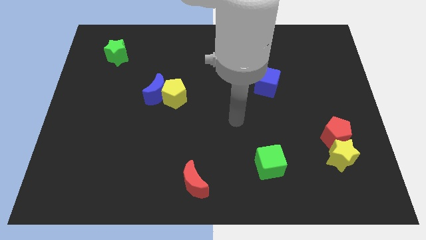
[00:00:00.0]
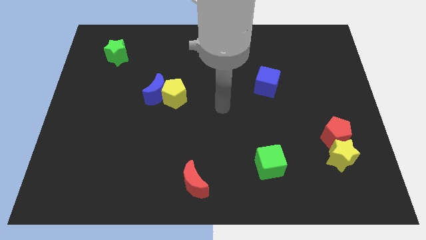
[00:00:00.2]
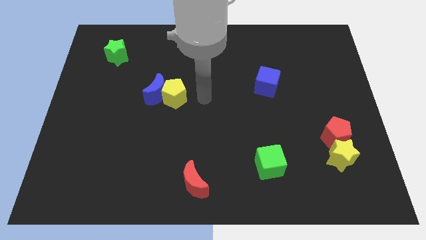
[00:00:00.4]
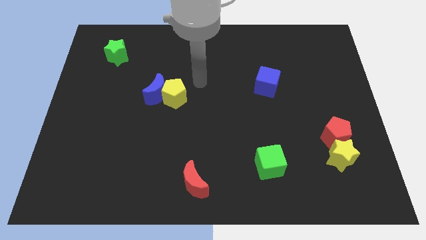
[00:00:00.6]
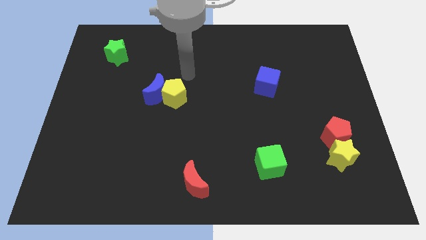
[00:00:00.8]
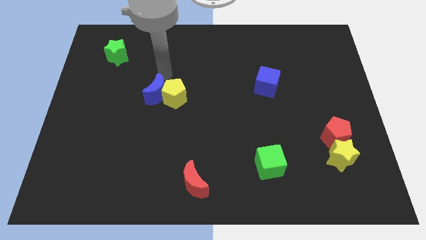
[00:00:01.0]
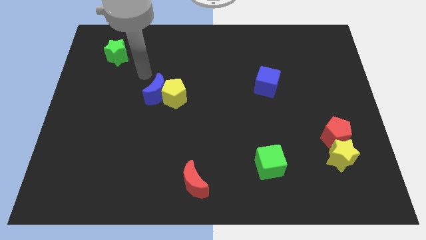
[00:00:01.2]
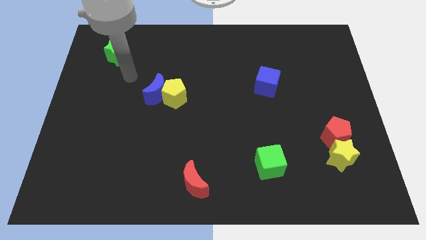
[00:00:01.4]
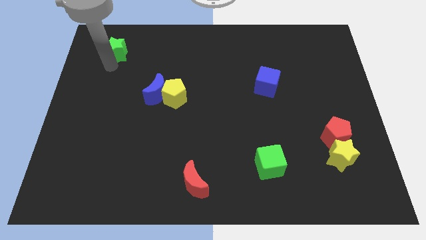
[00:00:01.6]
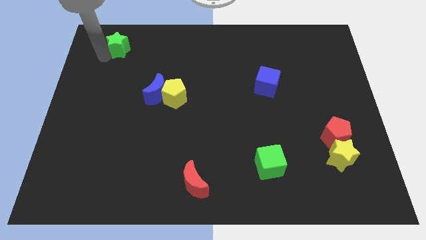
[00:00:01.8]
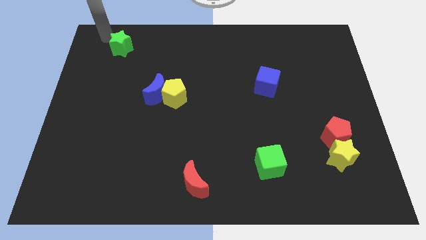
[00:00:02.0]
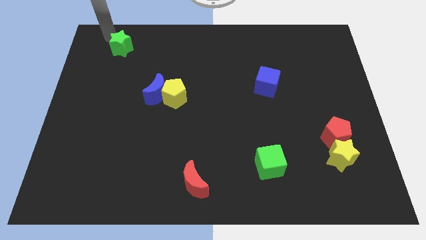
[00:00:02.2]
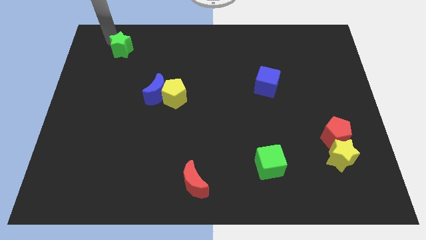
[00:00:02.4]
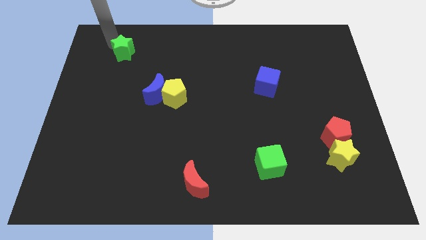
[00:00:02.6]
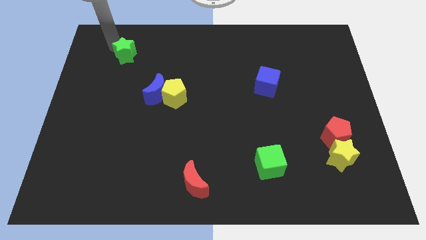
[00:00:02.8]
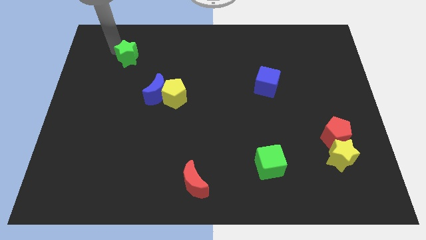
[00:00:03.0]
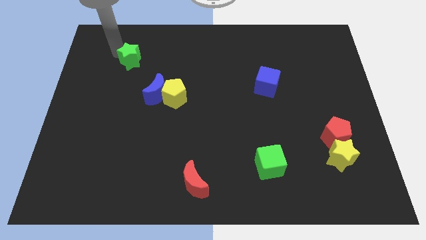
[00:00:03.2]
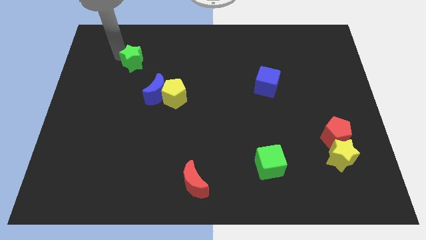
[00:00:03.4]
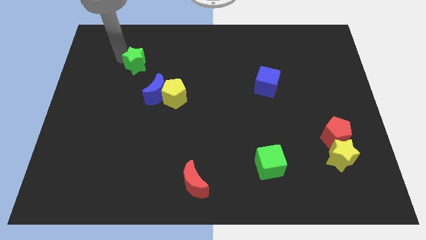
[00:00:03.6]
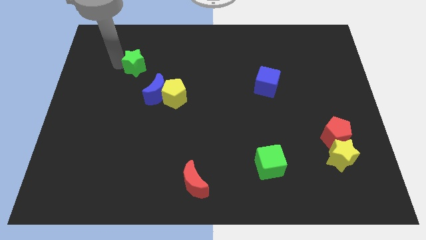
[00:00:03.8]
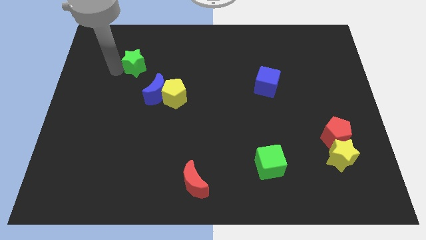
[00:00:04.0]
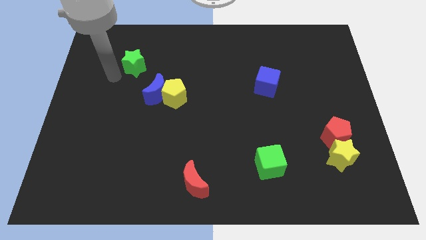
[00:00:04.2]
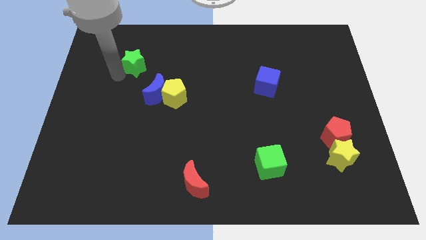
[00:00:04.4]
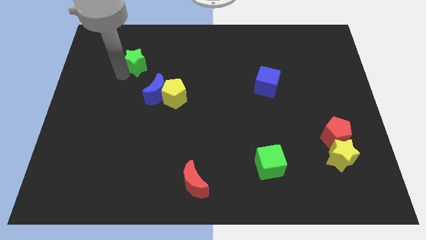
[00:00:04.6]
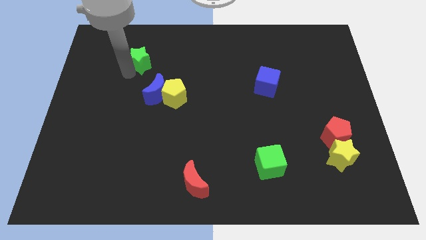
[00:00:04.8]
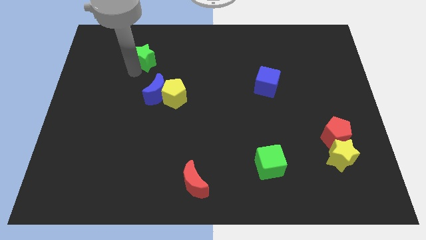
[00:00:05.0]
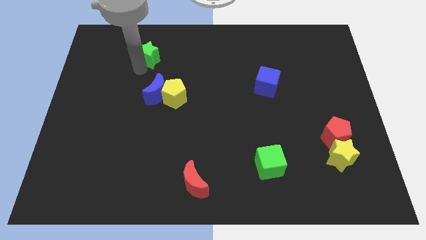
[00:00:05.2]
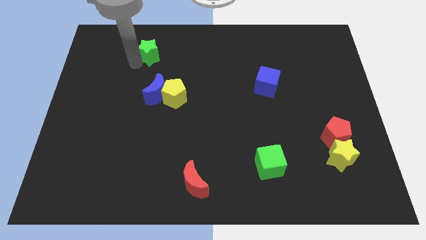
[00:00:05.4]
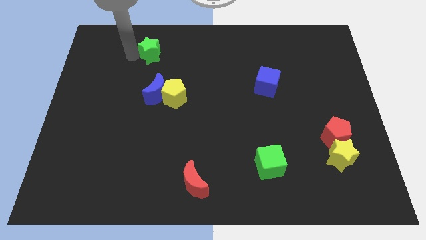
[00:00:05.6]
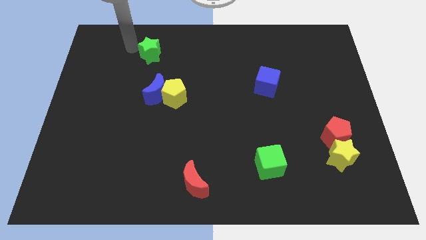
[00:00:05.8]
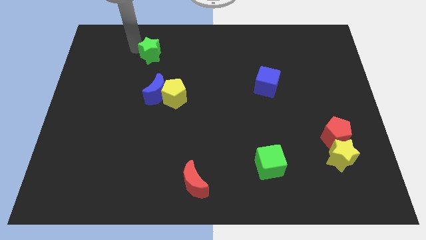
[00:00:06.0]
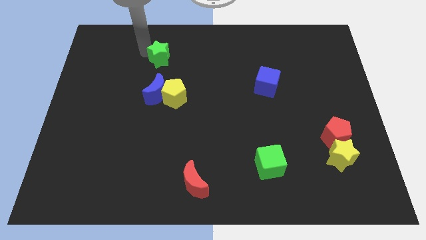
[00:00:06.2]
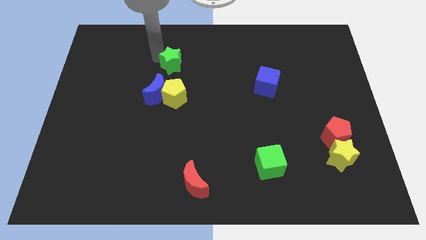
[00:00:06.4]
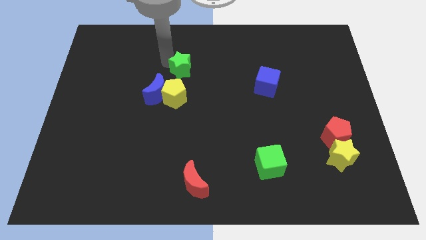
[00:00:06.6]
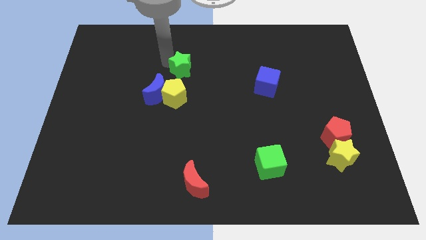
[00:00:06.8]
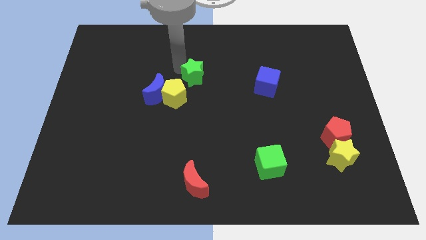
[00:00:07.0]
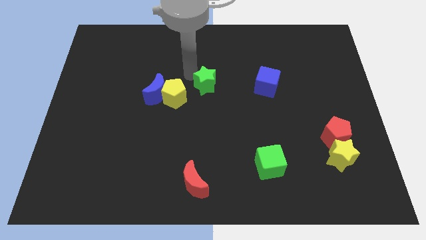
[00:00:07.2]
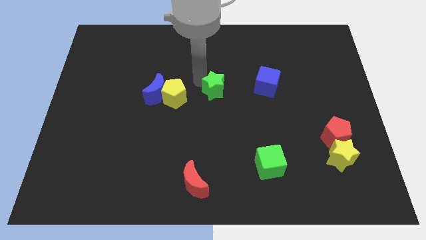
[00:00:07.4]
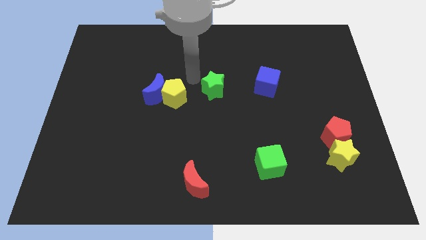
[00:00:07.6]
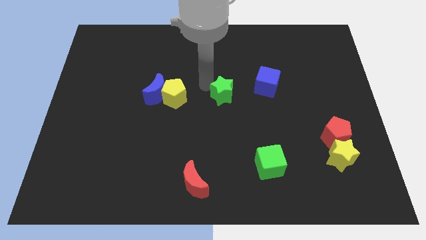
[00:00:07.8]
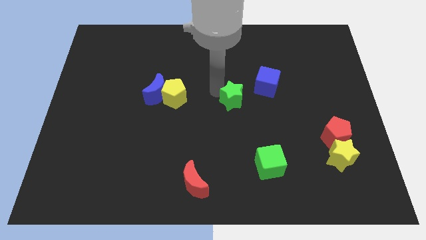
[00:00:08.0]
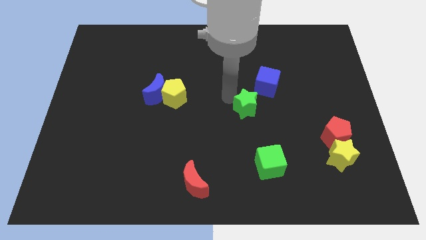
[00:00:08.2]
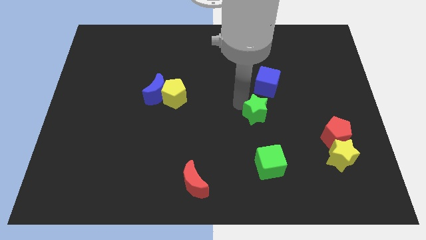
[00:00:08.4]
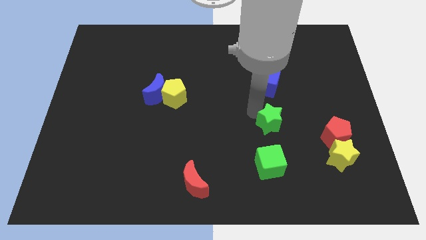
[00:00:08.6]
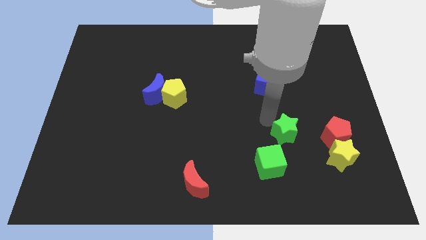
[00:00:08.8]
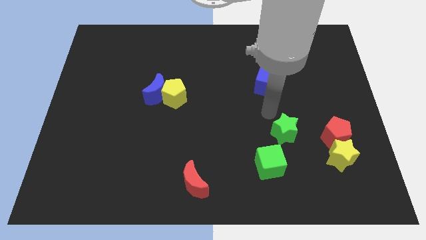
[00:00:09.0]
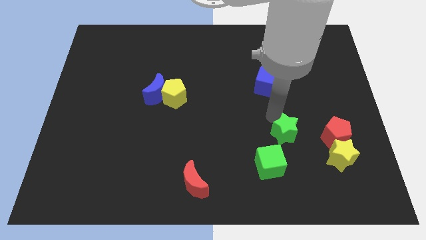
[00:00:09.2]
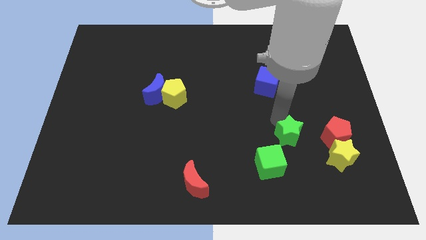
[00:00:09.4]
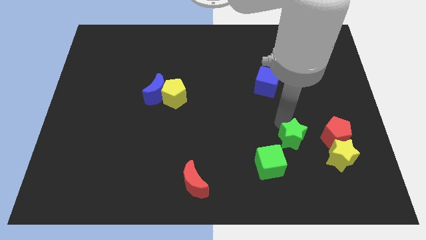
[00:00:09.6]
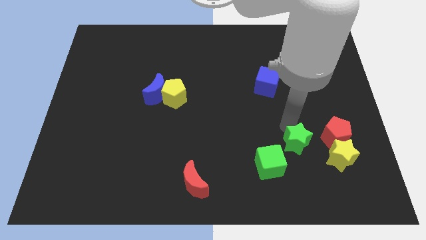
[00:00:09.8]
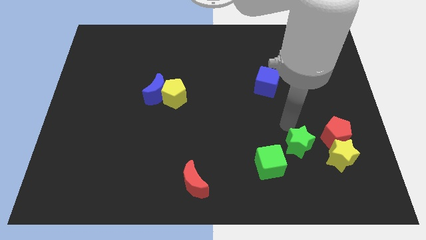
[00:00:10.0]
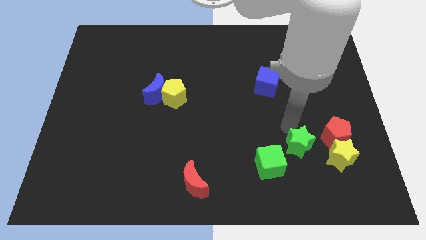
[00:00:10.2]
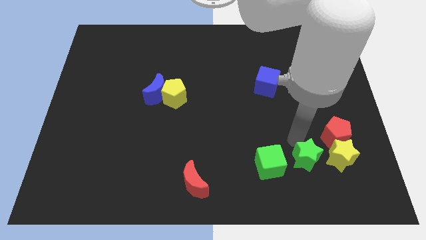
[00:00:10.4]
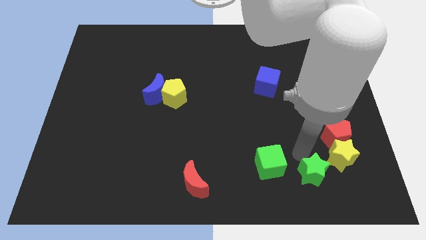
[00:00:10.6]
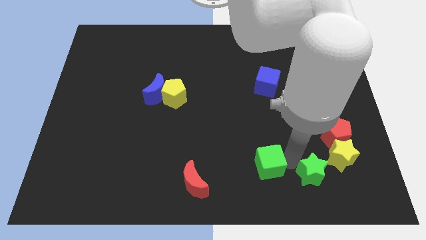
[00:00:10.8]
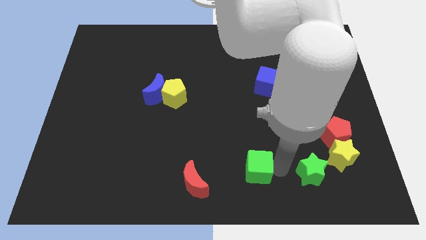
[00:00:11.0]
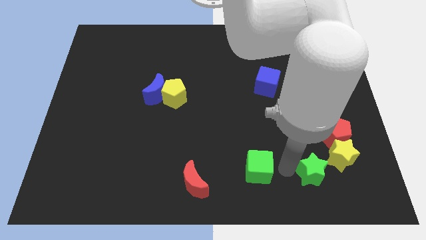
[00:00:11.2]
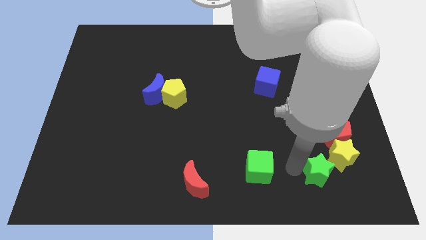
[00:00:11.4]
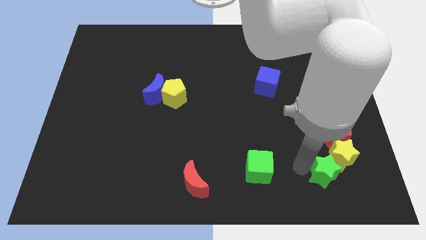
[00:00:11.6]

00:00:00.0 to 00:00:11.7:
move the green star to the bottom side of the red pentagon
